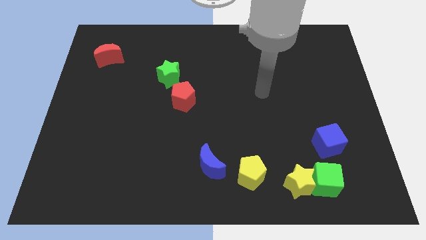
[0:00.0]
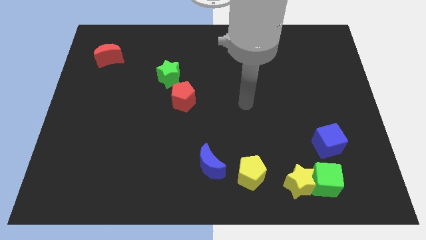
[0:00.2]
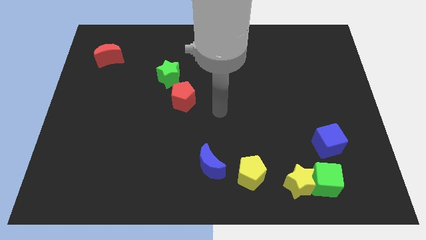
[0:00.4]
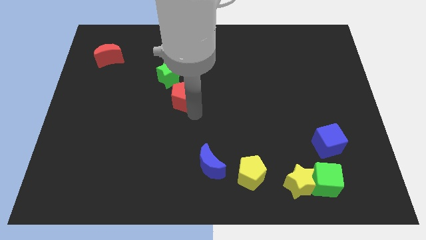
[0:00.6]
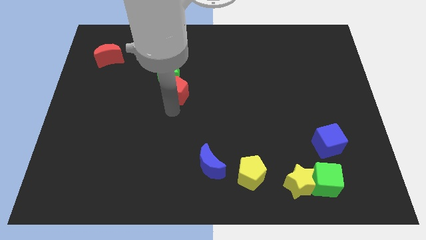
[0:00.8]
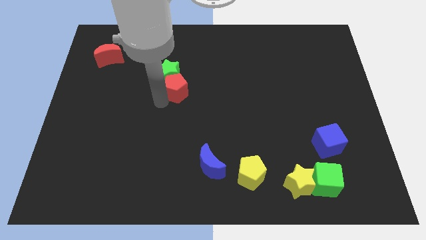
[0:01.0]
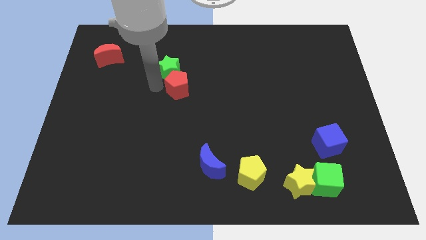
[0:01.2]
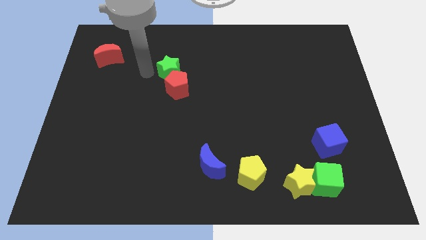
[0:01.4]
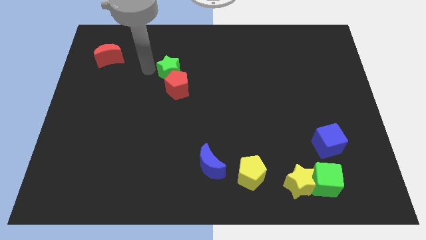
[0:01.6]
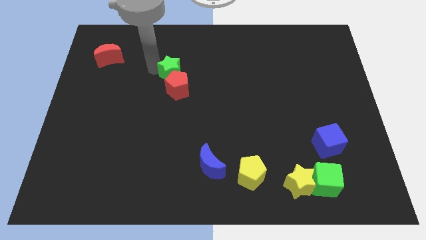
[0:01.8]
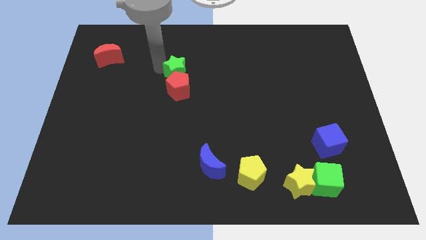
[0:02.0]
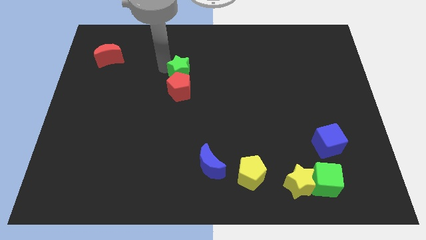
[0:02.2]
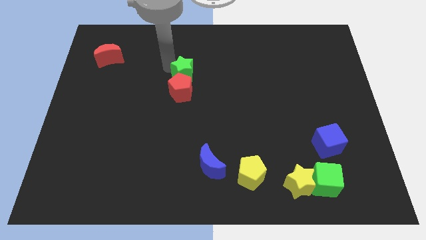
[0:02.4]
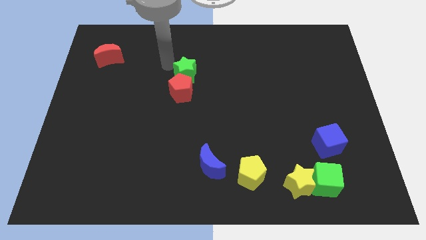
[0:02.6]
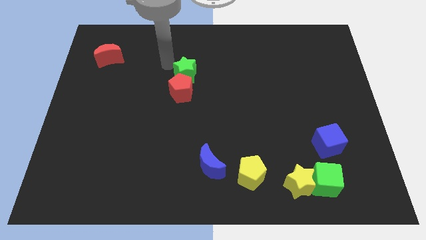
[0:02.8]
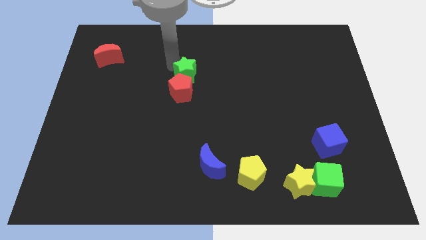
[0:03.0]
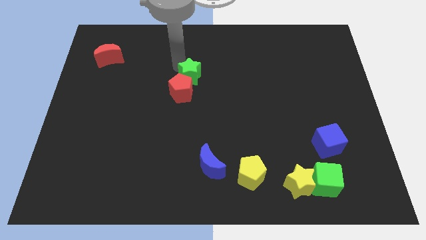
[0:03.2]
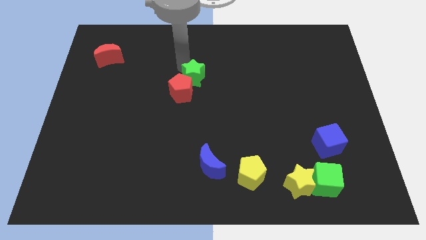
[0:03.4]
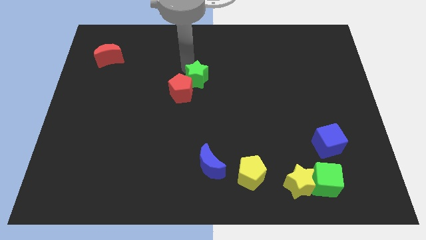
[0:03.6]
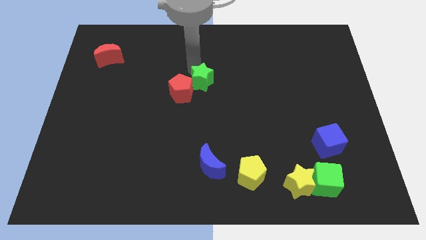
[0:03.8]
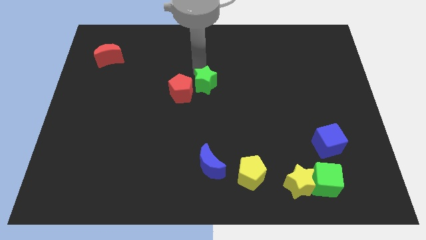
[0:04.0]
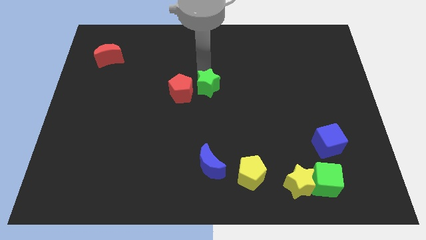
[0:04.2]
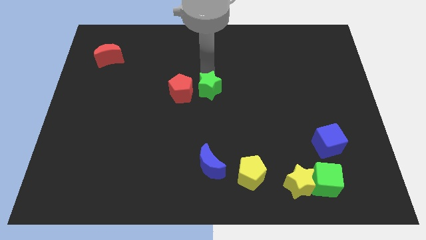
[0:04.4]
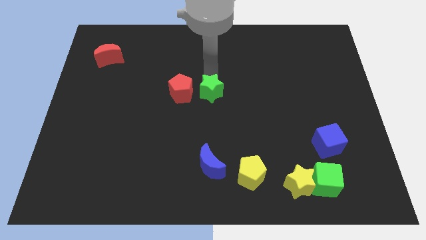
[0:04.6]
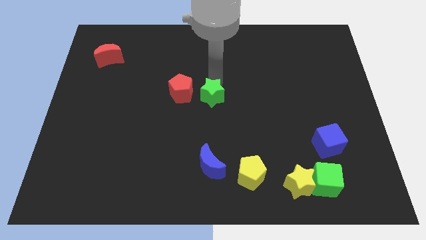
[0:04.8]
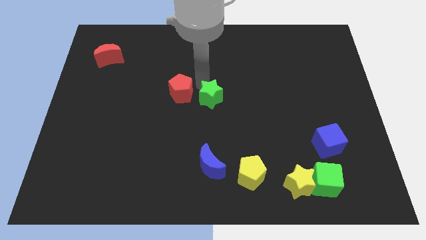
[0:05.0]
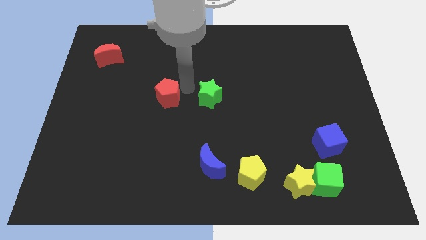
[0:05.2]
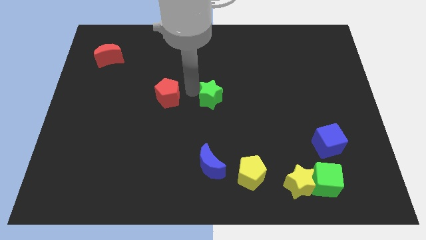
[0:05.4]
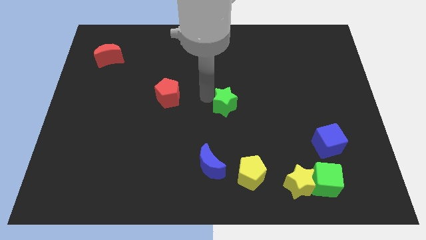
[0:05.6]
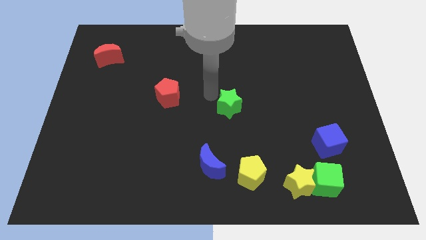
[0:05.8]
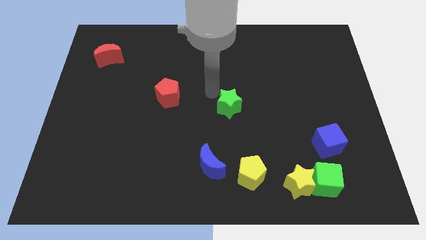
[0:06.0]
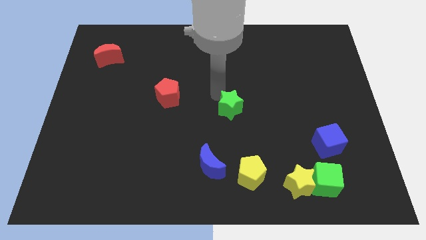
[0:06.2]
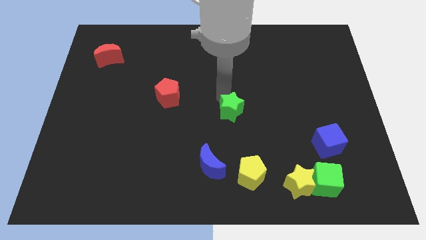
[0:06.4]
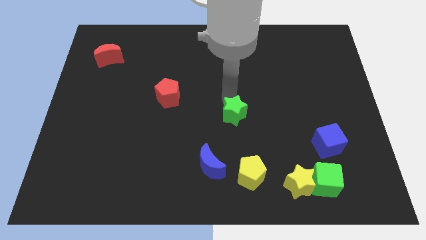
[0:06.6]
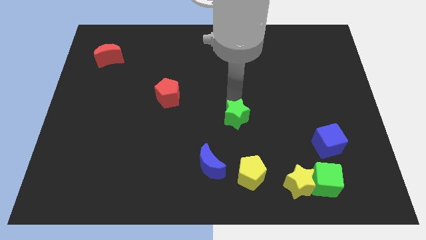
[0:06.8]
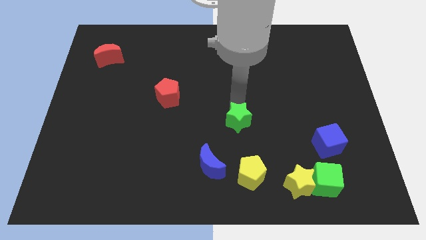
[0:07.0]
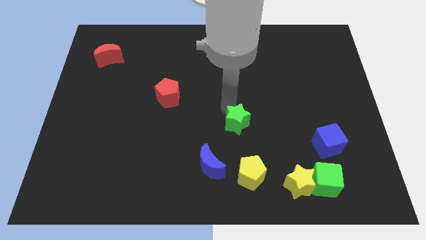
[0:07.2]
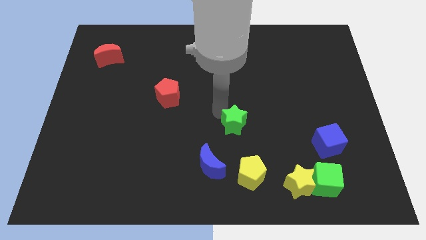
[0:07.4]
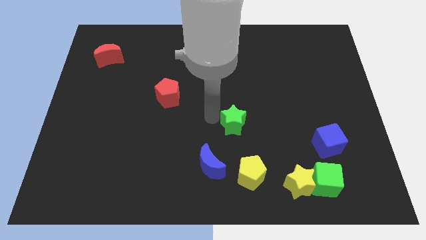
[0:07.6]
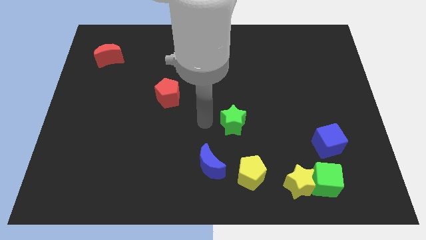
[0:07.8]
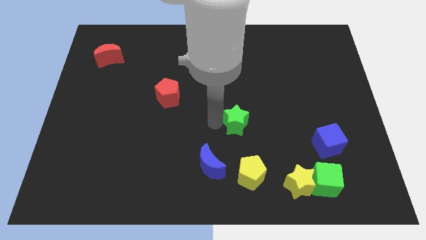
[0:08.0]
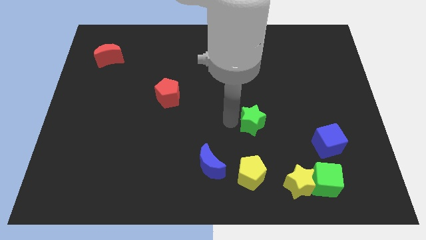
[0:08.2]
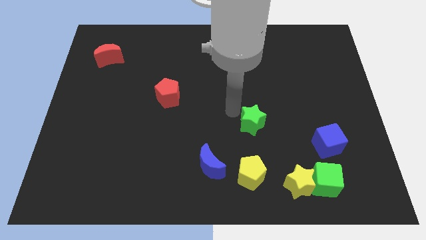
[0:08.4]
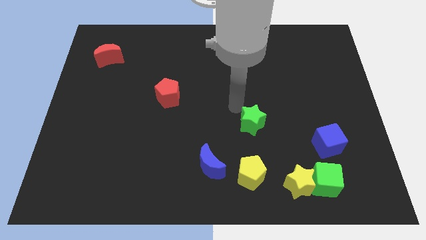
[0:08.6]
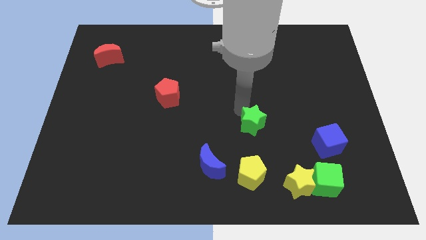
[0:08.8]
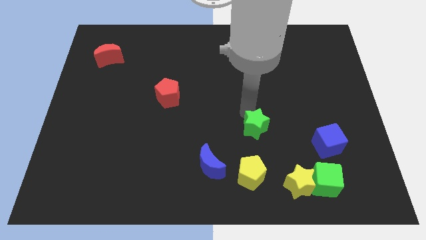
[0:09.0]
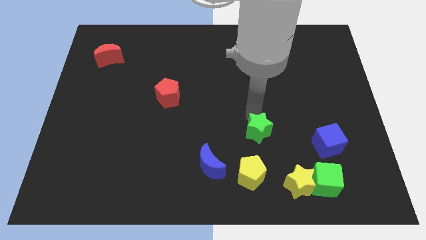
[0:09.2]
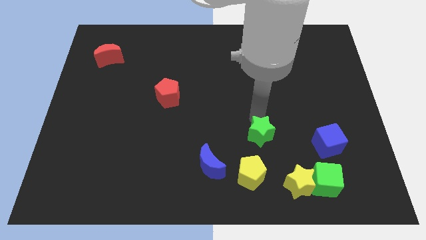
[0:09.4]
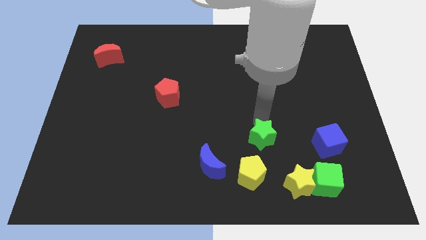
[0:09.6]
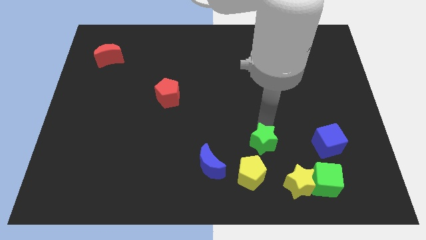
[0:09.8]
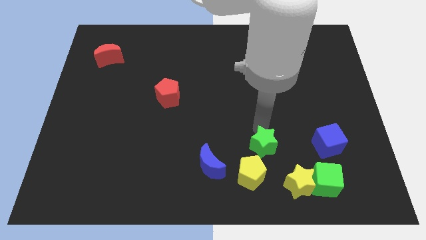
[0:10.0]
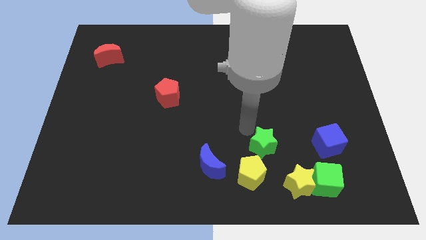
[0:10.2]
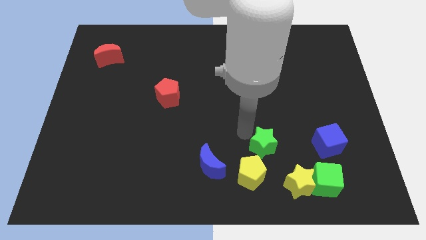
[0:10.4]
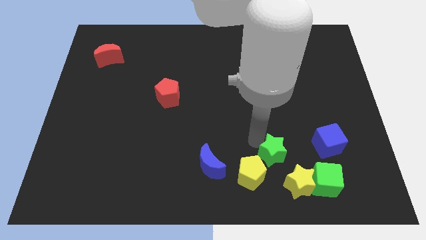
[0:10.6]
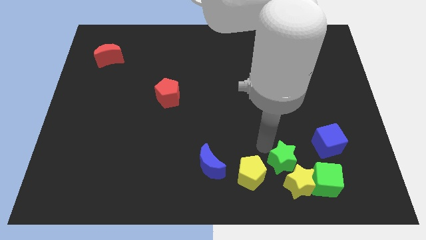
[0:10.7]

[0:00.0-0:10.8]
slide the green star next to the yellow star

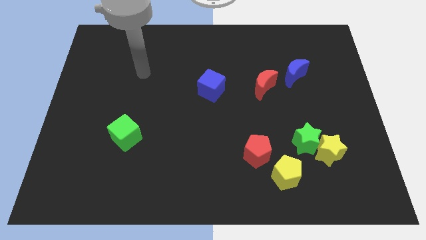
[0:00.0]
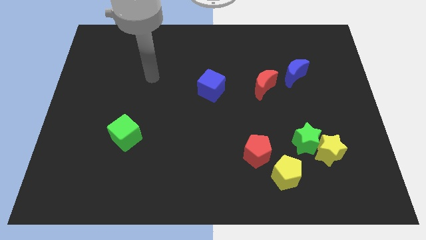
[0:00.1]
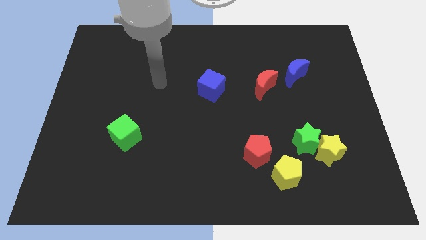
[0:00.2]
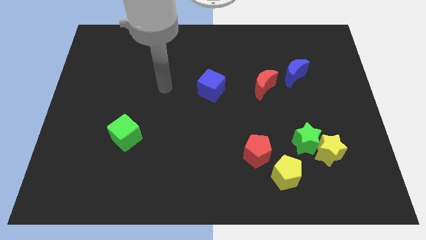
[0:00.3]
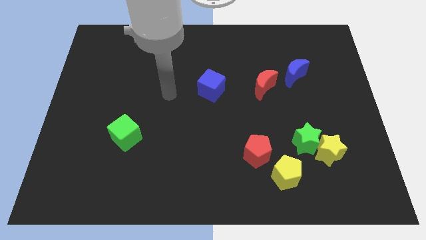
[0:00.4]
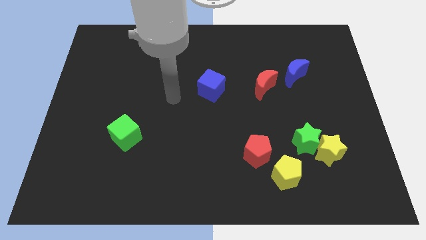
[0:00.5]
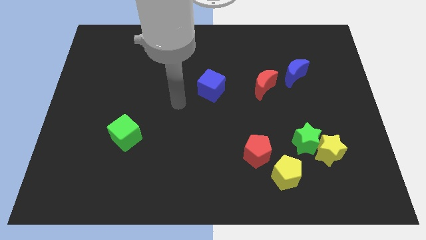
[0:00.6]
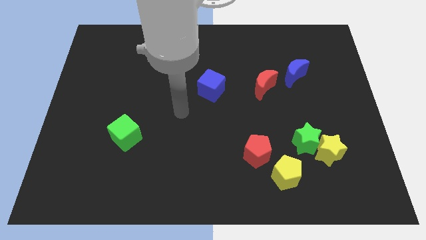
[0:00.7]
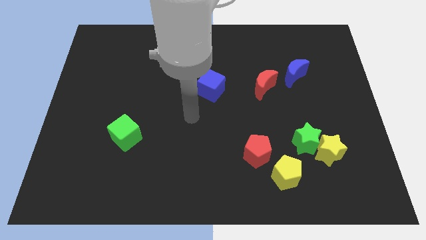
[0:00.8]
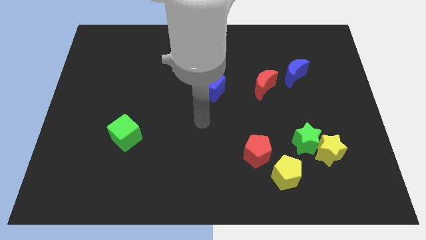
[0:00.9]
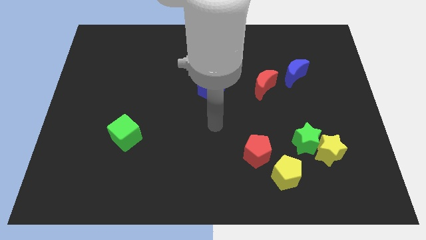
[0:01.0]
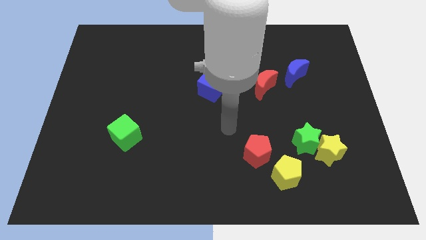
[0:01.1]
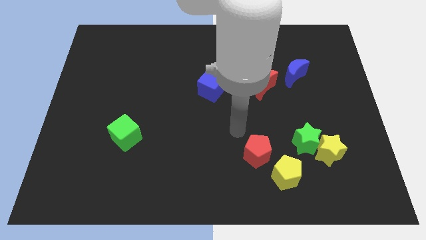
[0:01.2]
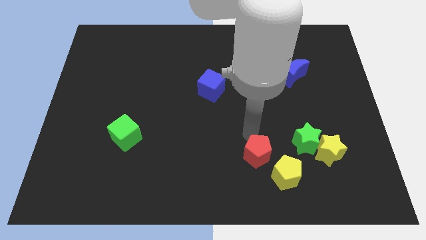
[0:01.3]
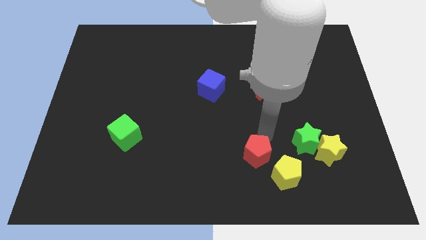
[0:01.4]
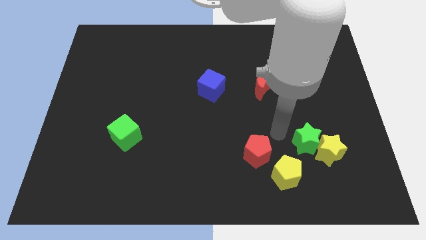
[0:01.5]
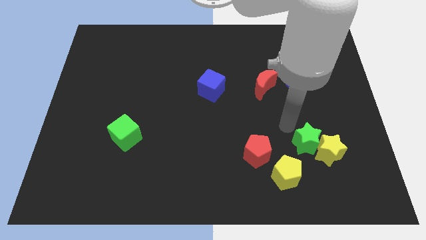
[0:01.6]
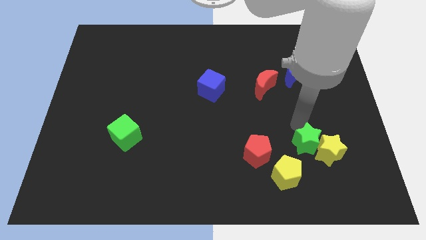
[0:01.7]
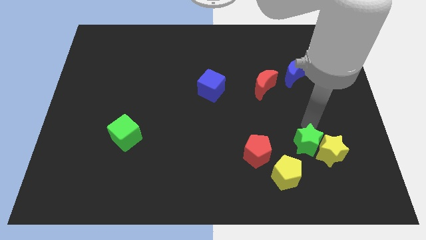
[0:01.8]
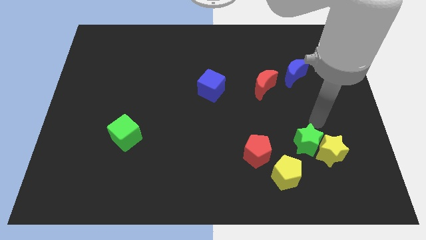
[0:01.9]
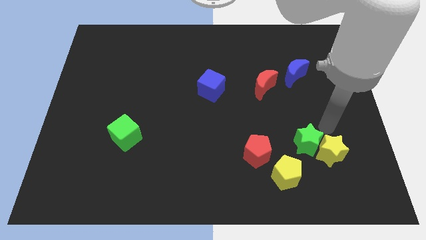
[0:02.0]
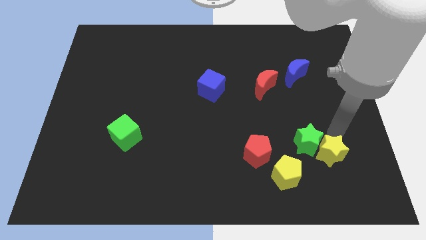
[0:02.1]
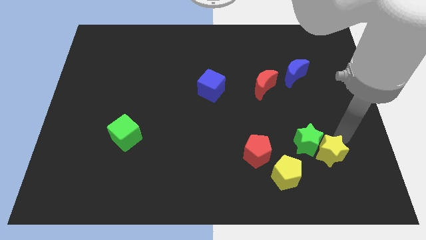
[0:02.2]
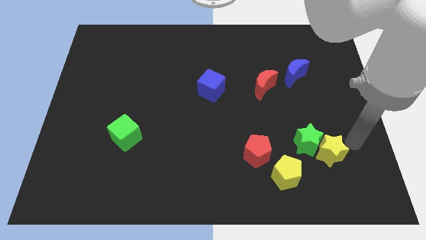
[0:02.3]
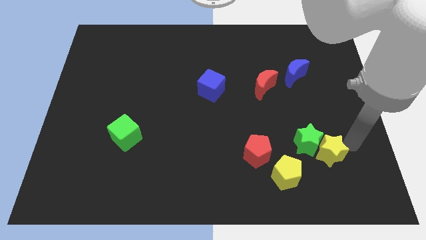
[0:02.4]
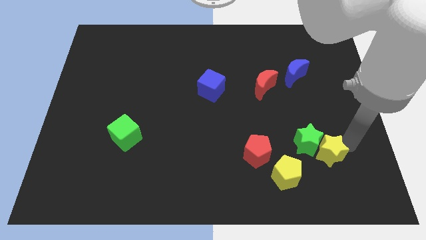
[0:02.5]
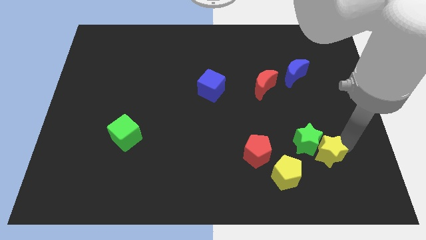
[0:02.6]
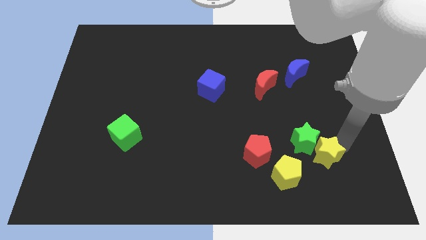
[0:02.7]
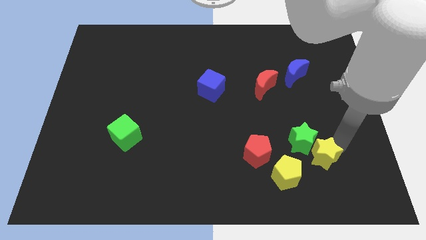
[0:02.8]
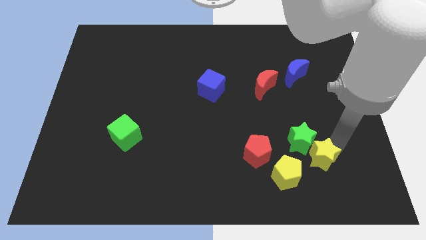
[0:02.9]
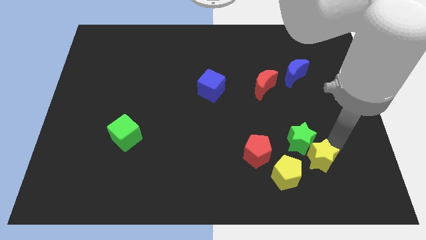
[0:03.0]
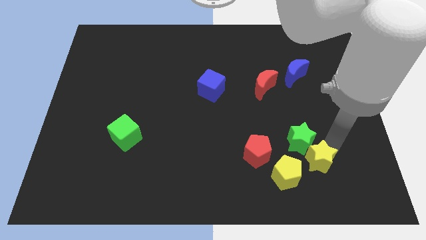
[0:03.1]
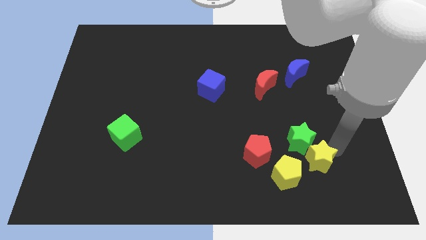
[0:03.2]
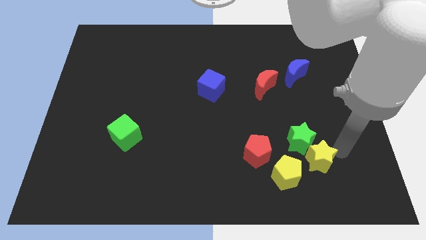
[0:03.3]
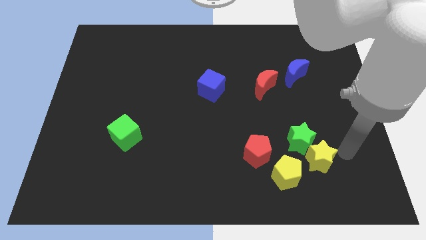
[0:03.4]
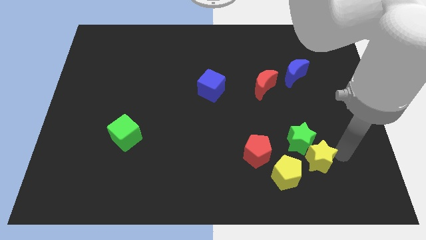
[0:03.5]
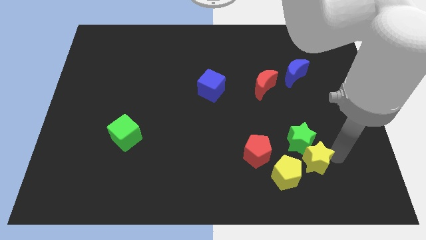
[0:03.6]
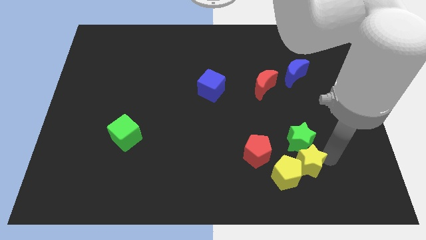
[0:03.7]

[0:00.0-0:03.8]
slide the yellow star to the yellow pentagon
